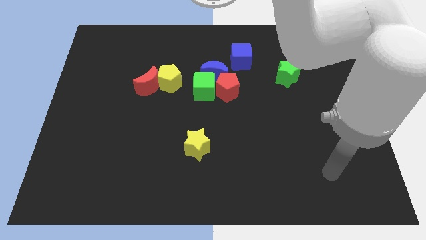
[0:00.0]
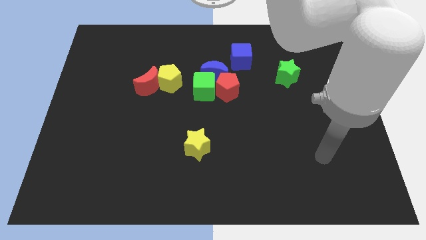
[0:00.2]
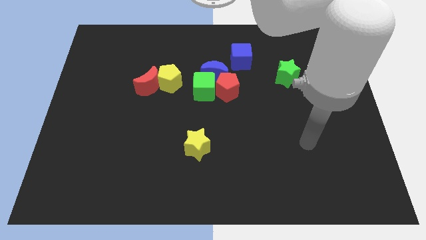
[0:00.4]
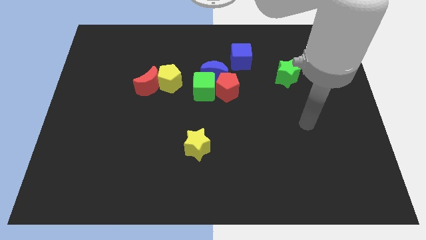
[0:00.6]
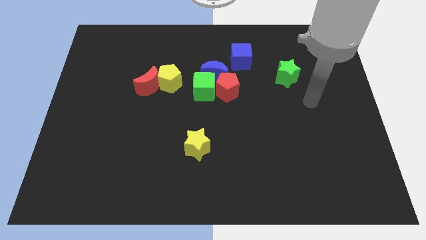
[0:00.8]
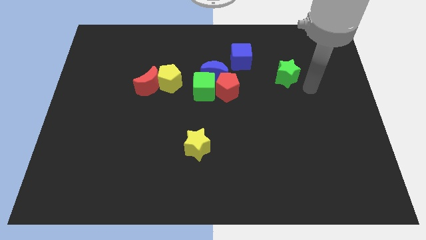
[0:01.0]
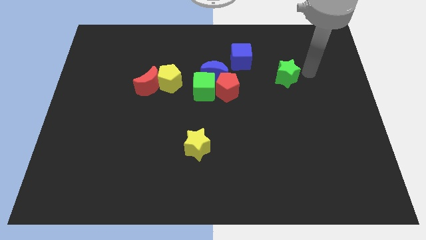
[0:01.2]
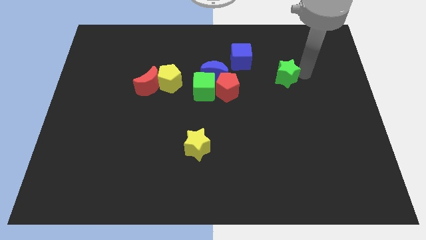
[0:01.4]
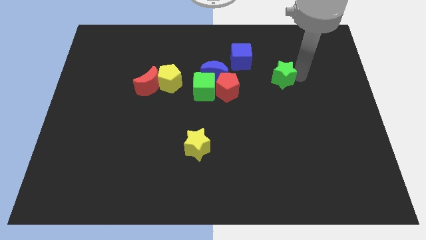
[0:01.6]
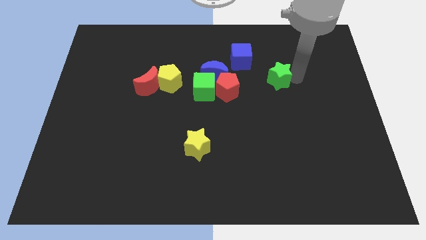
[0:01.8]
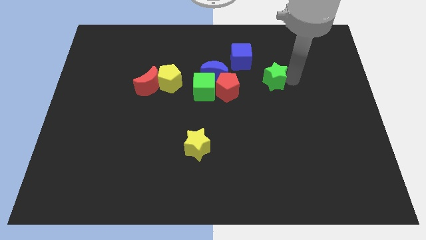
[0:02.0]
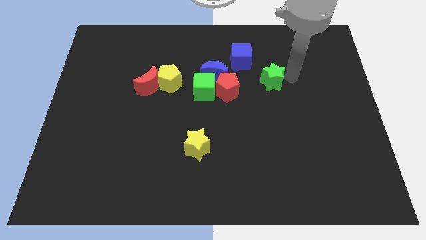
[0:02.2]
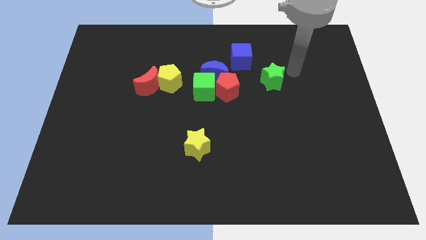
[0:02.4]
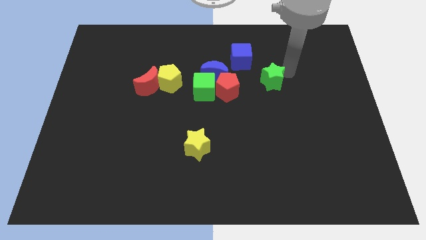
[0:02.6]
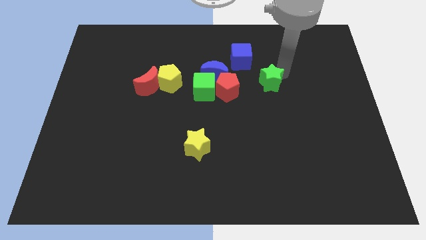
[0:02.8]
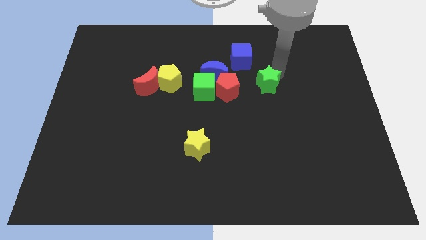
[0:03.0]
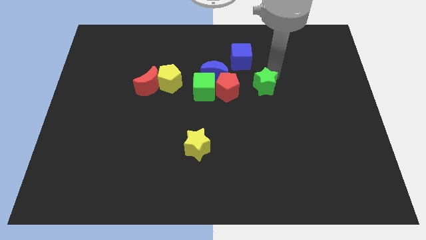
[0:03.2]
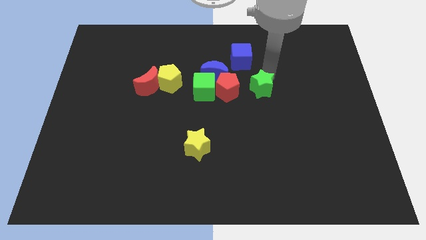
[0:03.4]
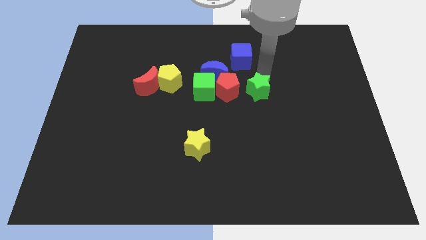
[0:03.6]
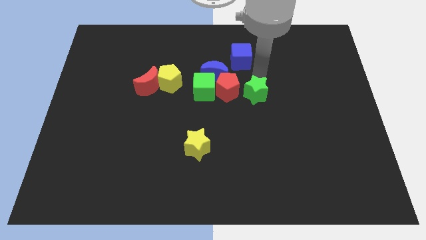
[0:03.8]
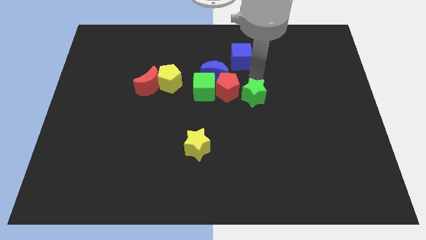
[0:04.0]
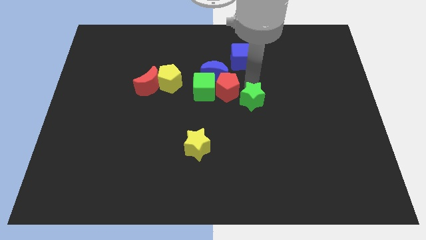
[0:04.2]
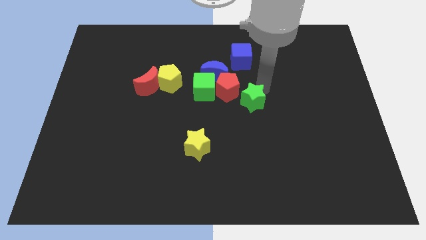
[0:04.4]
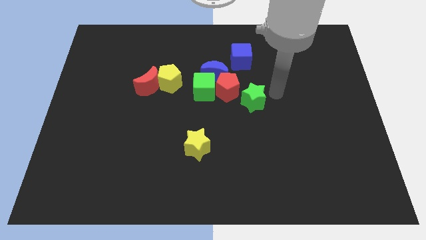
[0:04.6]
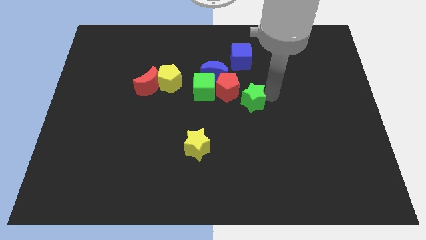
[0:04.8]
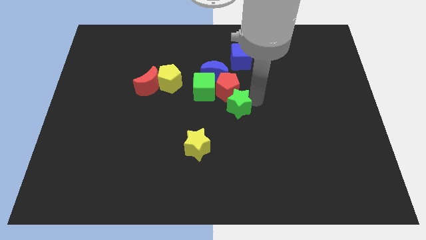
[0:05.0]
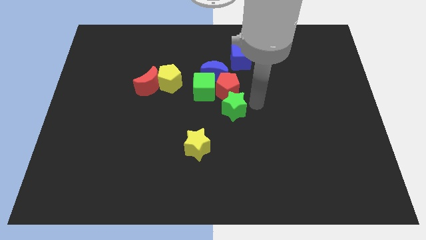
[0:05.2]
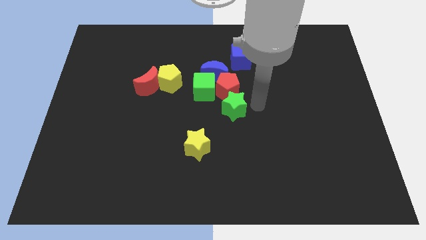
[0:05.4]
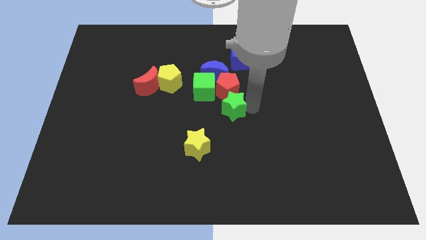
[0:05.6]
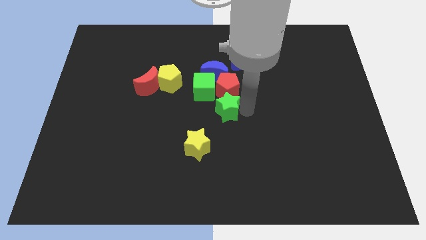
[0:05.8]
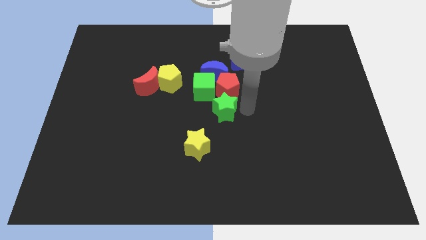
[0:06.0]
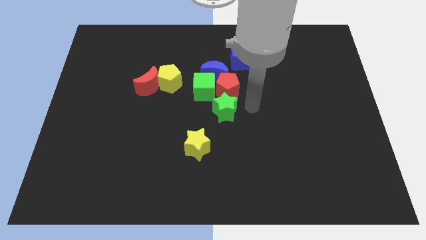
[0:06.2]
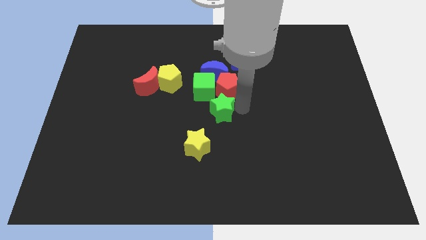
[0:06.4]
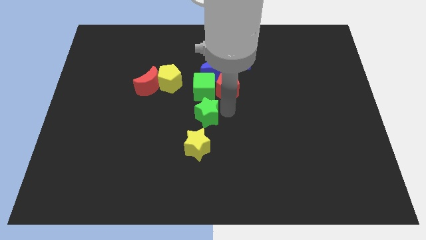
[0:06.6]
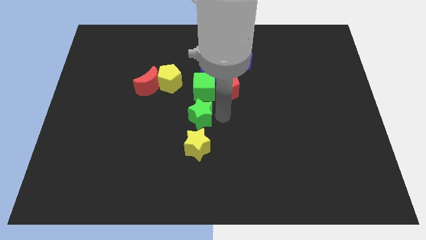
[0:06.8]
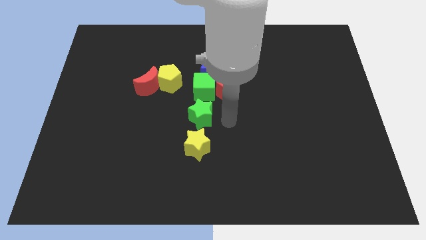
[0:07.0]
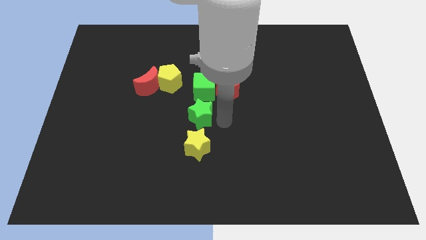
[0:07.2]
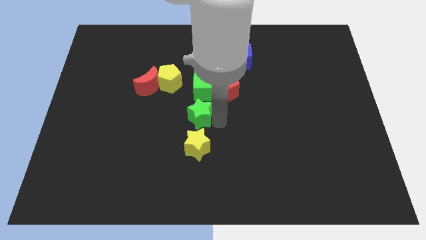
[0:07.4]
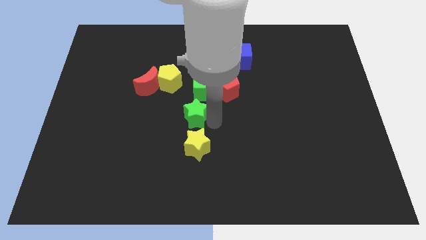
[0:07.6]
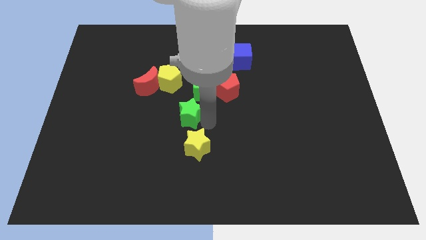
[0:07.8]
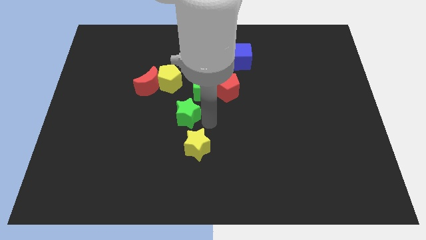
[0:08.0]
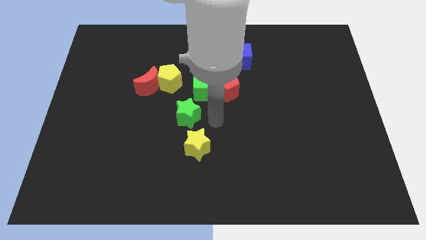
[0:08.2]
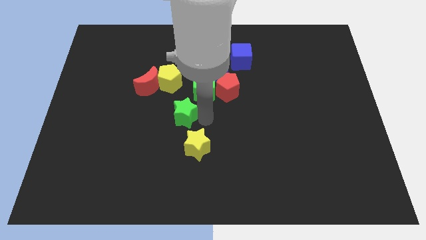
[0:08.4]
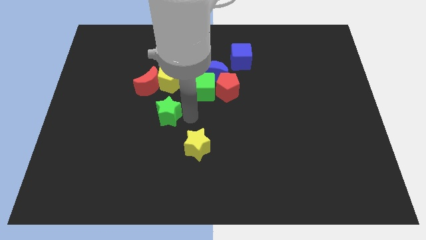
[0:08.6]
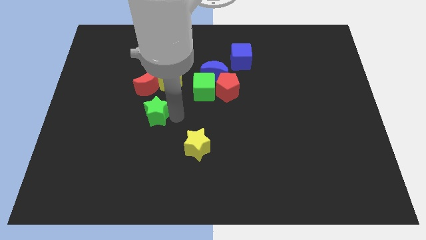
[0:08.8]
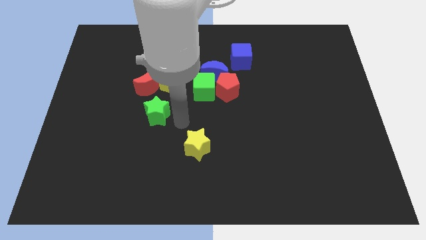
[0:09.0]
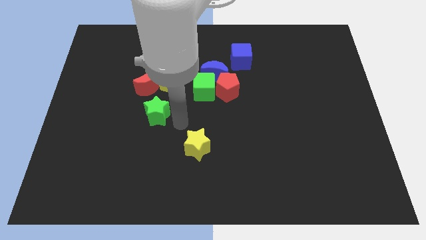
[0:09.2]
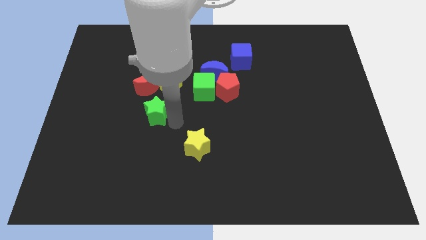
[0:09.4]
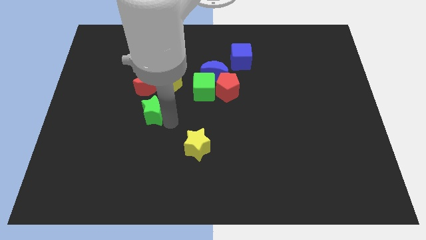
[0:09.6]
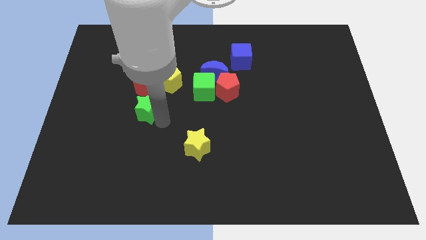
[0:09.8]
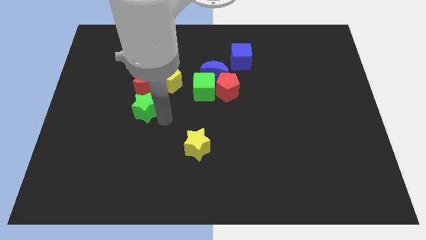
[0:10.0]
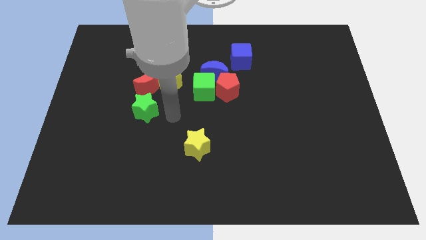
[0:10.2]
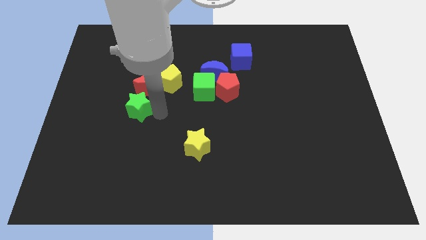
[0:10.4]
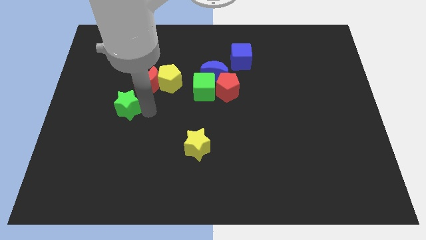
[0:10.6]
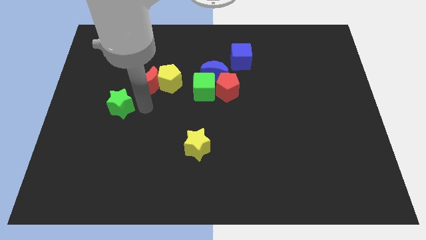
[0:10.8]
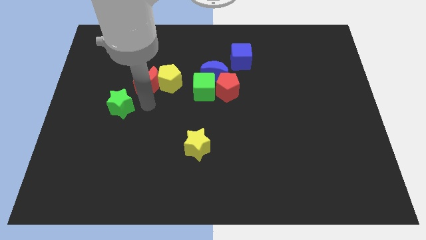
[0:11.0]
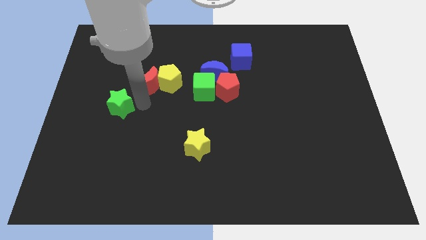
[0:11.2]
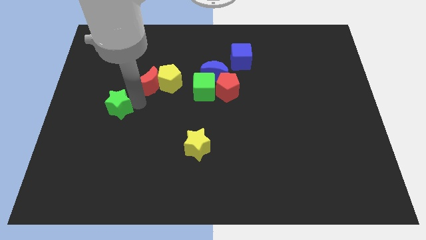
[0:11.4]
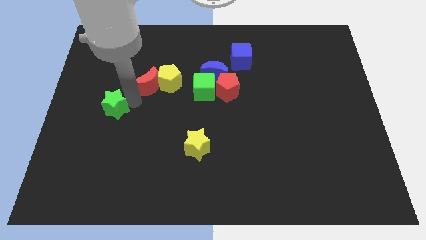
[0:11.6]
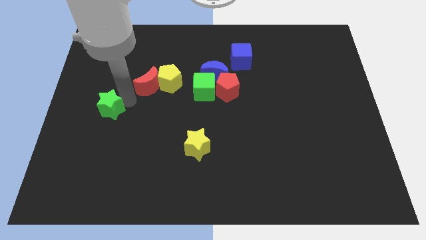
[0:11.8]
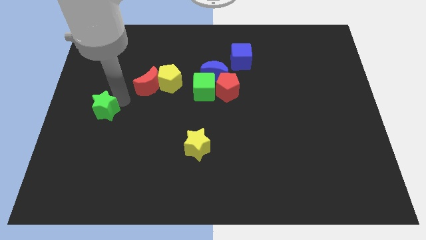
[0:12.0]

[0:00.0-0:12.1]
move the green star to the center left

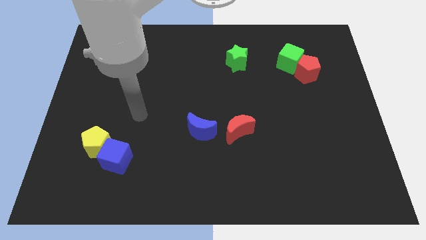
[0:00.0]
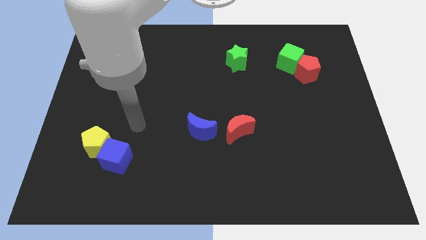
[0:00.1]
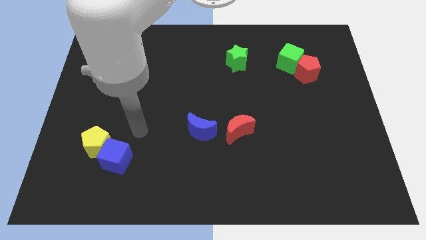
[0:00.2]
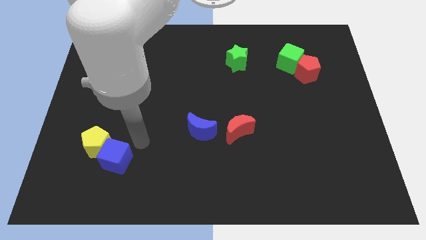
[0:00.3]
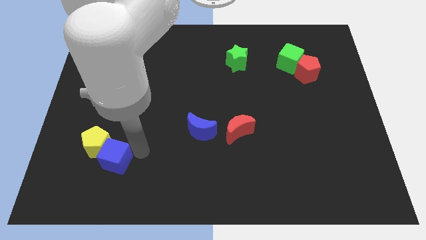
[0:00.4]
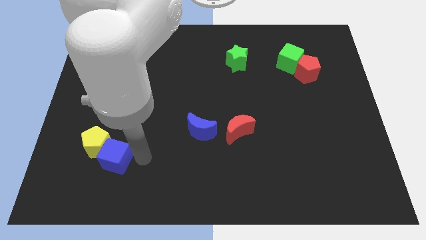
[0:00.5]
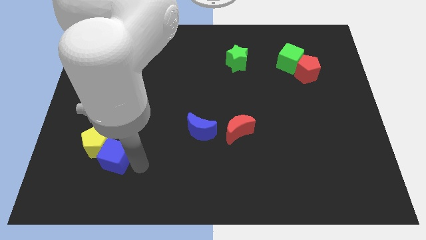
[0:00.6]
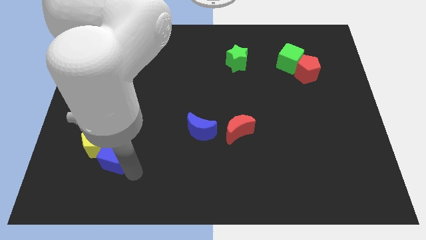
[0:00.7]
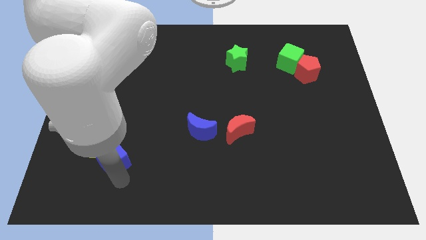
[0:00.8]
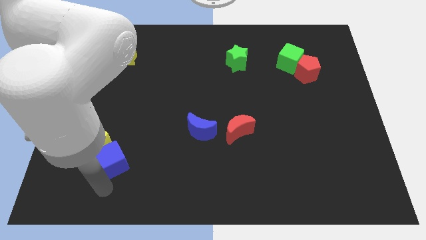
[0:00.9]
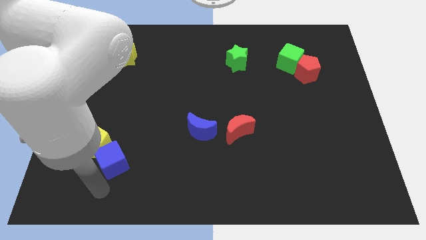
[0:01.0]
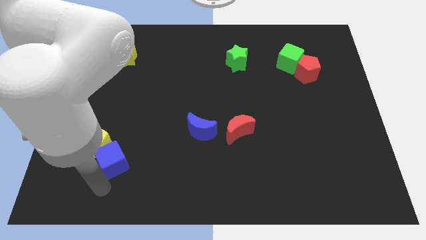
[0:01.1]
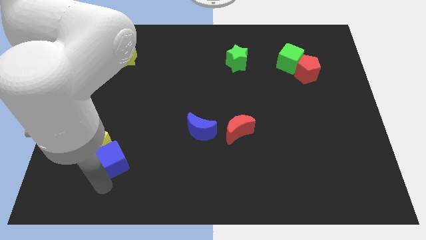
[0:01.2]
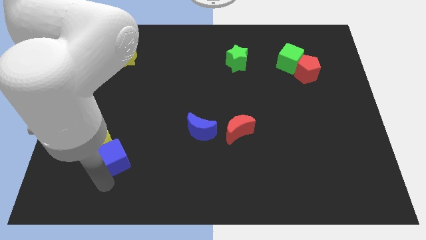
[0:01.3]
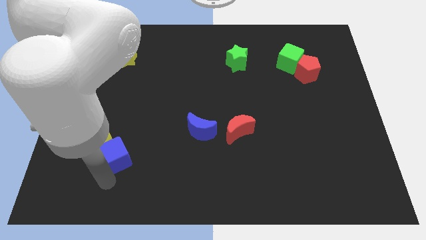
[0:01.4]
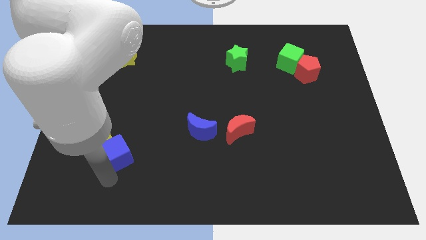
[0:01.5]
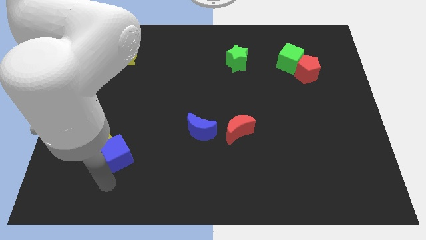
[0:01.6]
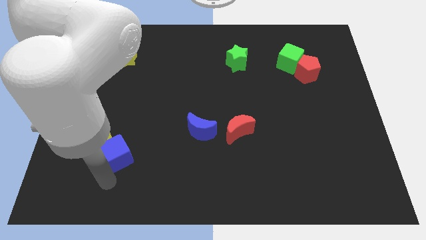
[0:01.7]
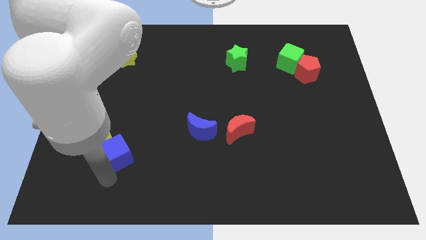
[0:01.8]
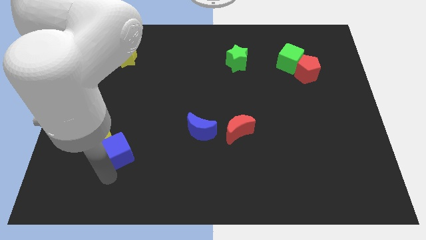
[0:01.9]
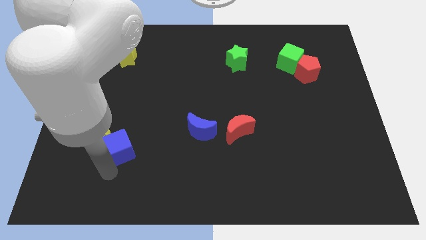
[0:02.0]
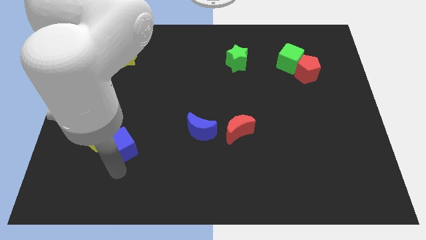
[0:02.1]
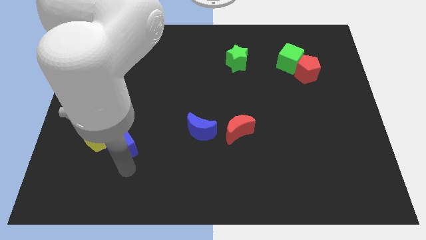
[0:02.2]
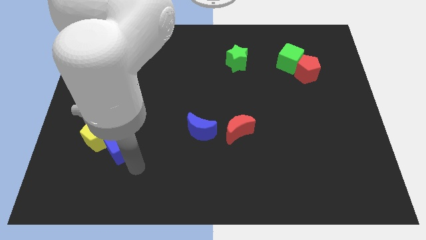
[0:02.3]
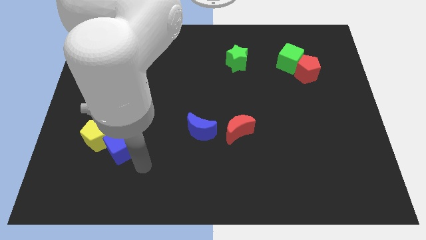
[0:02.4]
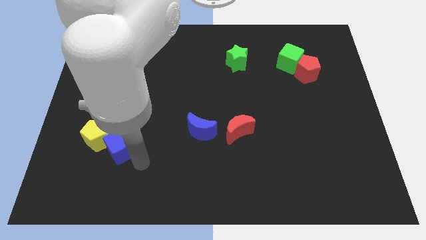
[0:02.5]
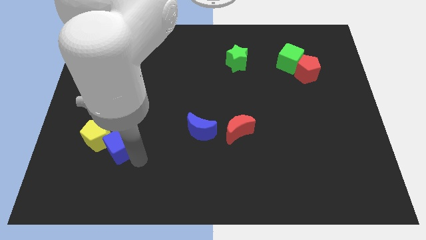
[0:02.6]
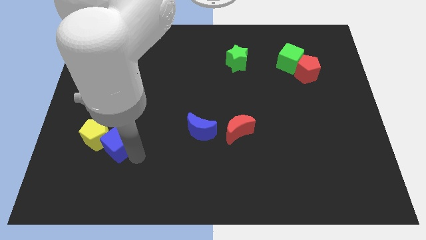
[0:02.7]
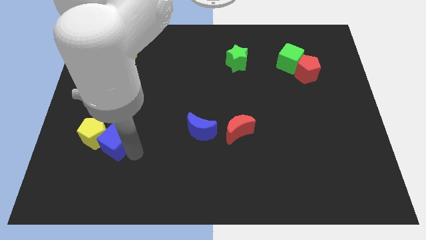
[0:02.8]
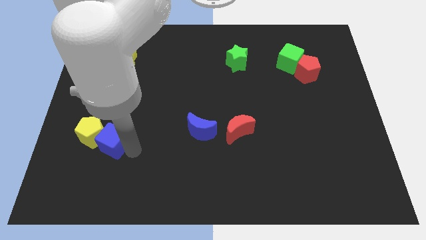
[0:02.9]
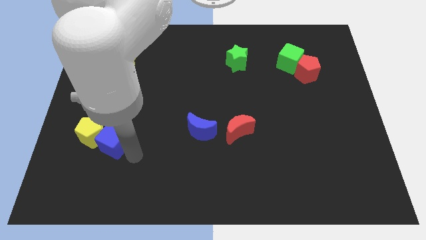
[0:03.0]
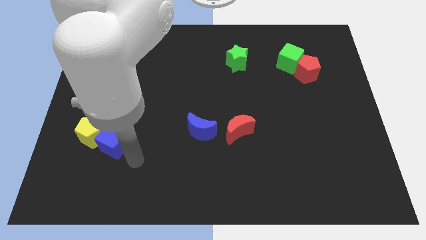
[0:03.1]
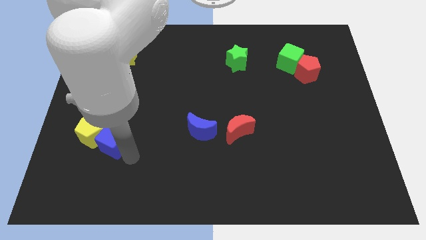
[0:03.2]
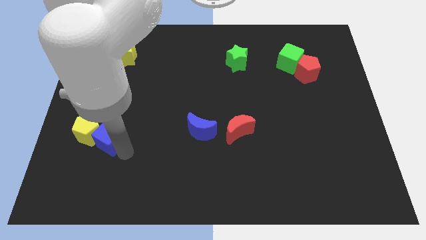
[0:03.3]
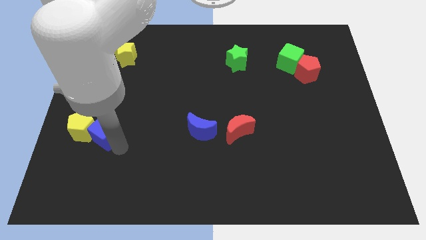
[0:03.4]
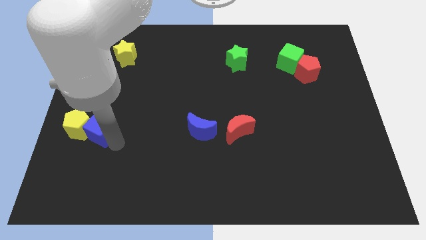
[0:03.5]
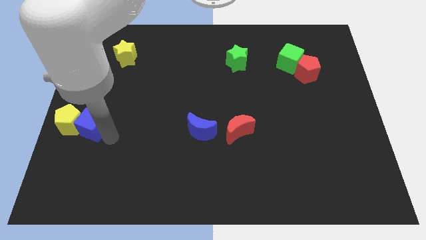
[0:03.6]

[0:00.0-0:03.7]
slide the blue cube to the center left
